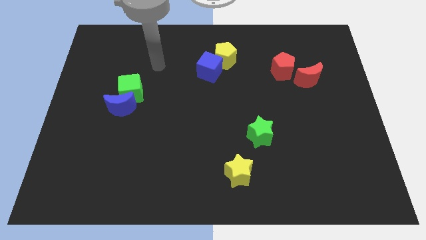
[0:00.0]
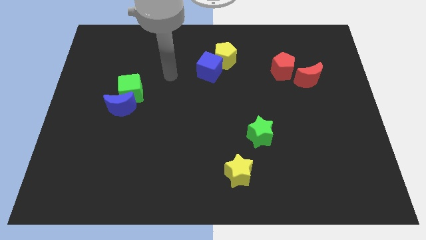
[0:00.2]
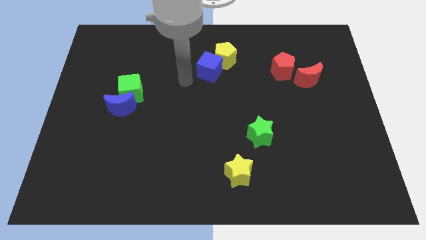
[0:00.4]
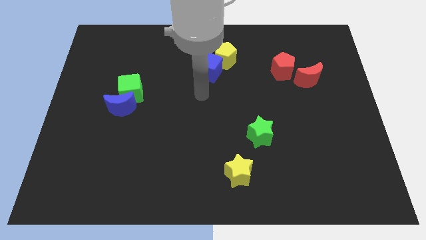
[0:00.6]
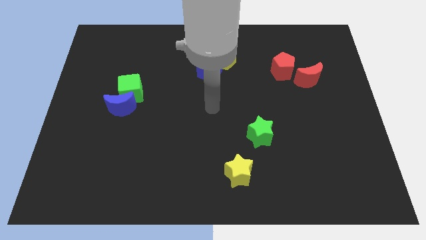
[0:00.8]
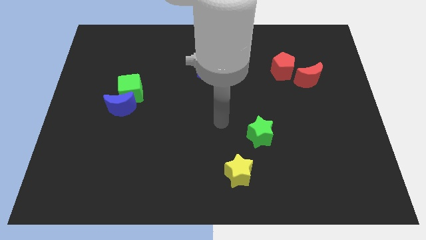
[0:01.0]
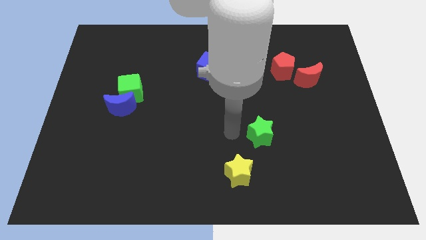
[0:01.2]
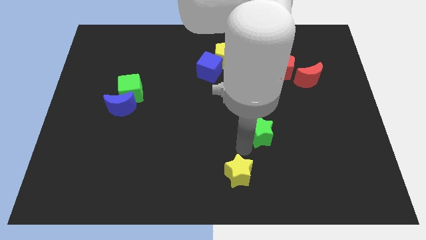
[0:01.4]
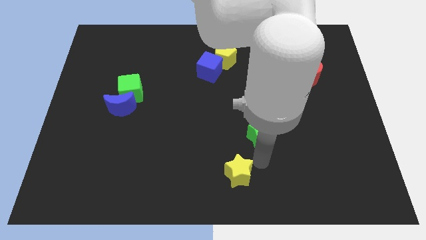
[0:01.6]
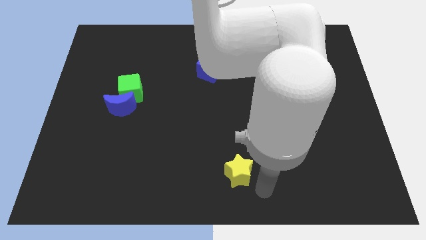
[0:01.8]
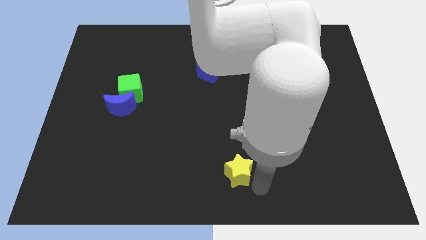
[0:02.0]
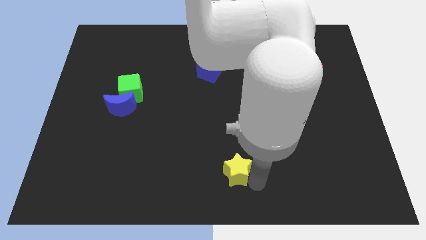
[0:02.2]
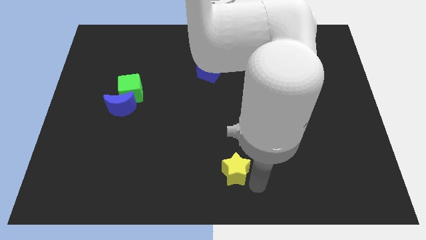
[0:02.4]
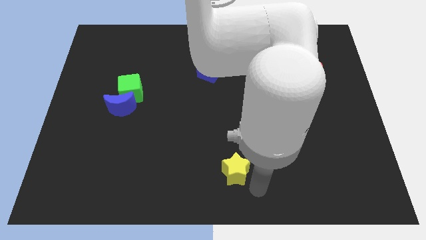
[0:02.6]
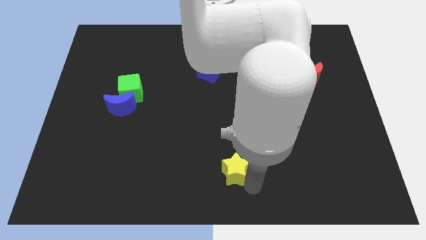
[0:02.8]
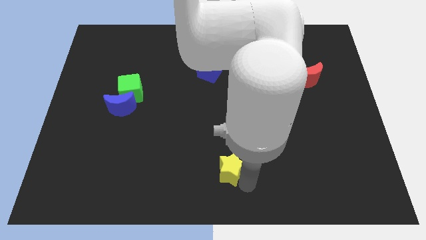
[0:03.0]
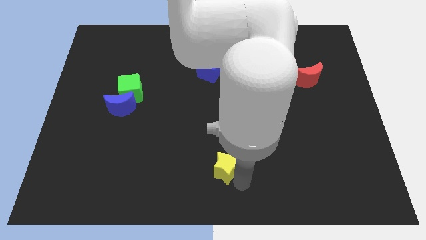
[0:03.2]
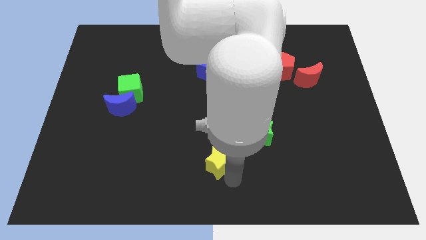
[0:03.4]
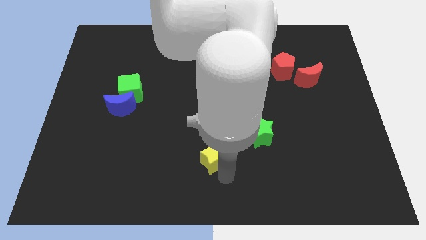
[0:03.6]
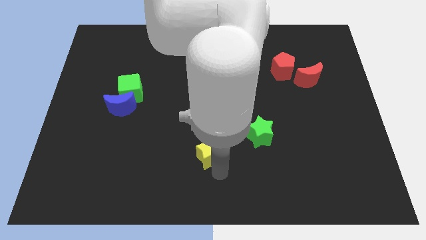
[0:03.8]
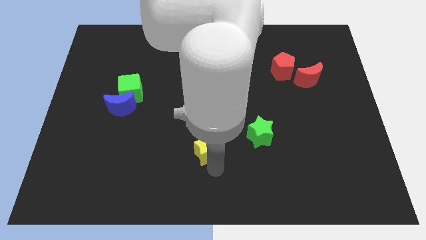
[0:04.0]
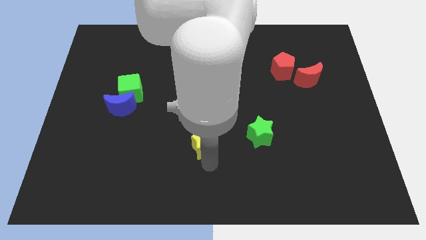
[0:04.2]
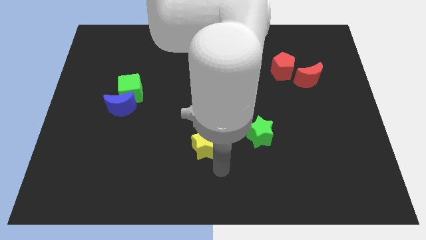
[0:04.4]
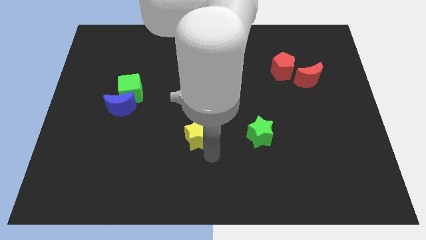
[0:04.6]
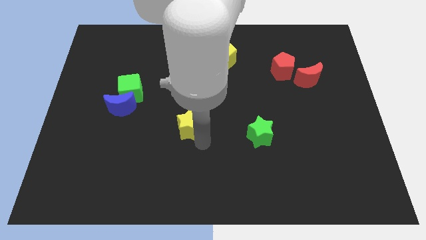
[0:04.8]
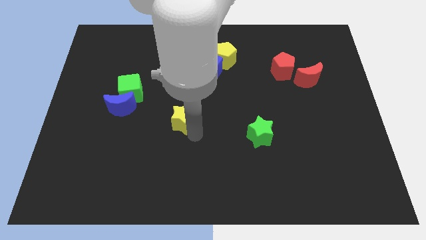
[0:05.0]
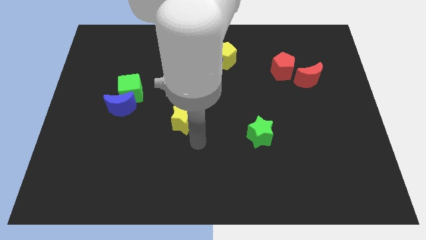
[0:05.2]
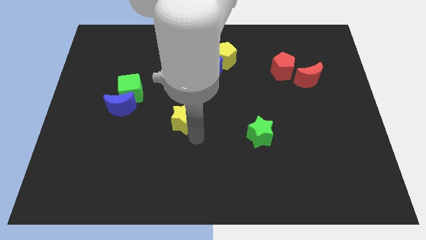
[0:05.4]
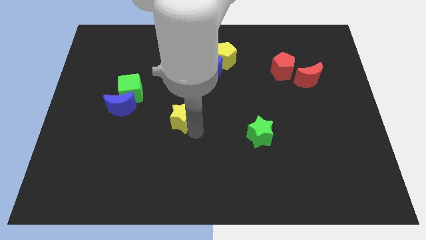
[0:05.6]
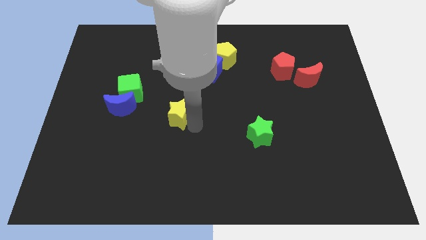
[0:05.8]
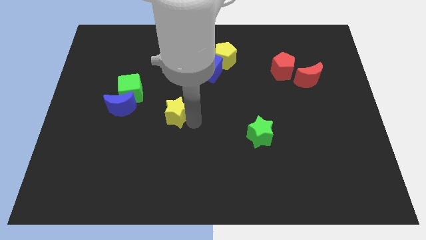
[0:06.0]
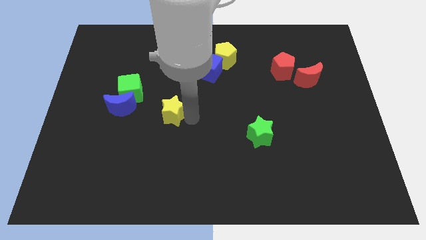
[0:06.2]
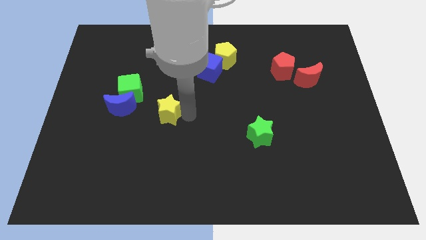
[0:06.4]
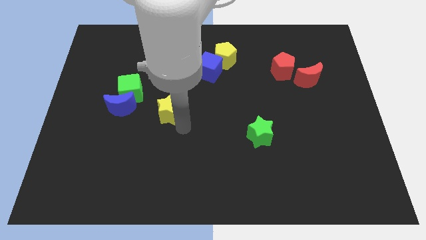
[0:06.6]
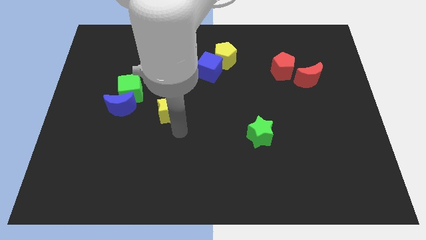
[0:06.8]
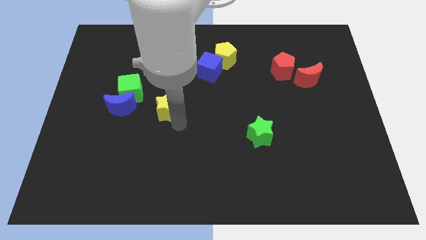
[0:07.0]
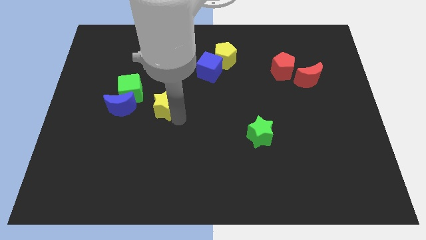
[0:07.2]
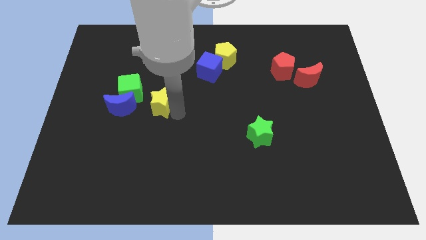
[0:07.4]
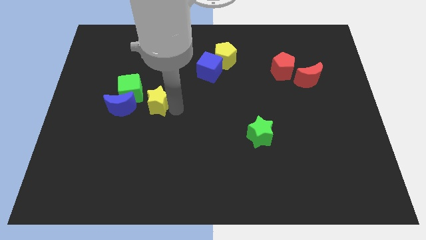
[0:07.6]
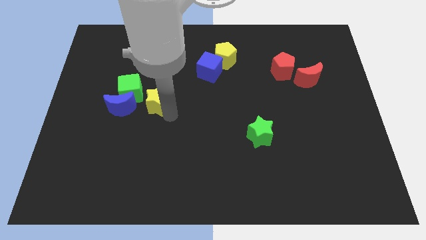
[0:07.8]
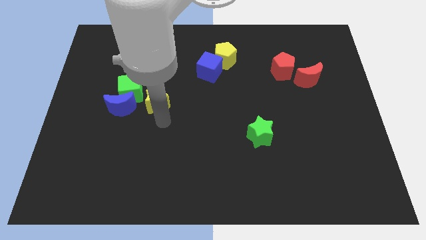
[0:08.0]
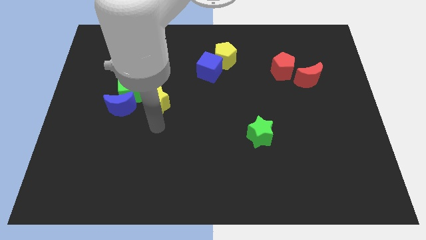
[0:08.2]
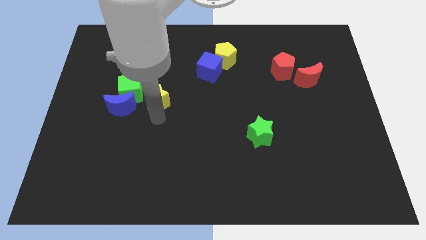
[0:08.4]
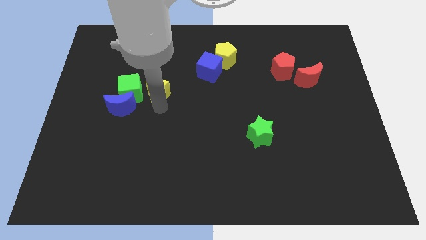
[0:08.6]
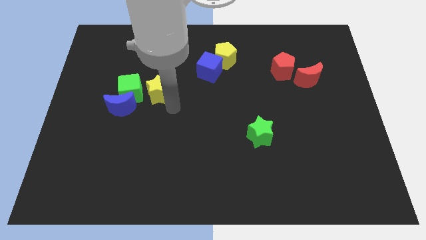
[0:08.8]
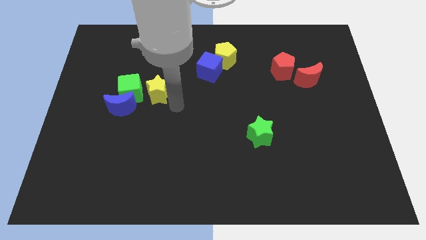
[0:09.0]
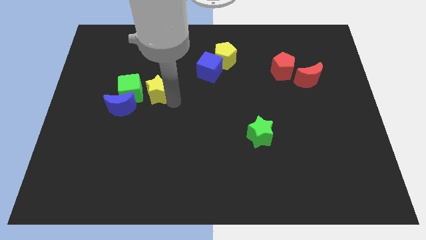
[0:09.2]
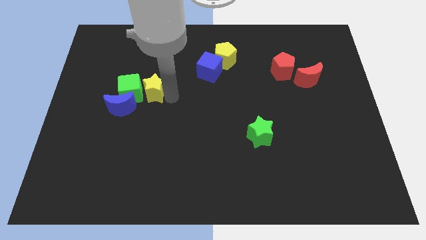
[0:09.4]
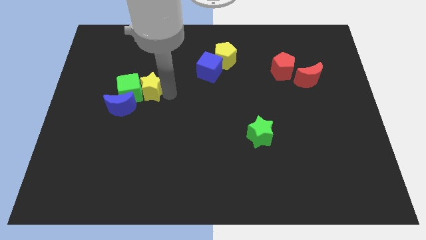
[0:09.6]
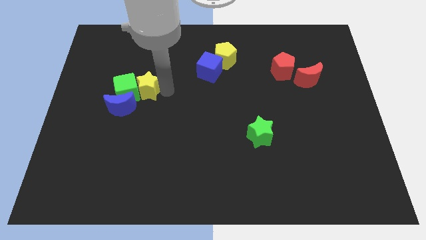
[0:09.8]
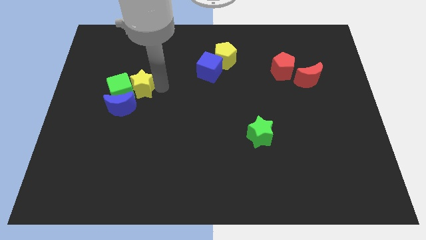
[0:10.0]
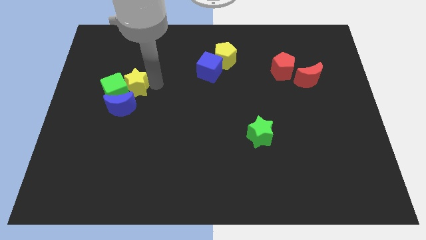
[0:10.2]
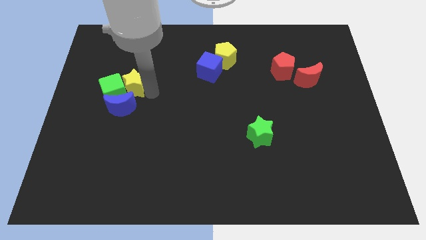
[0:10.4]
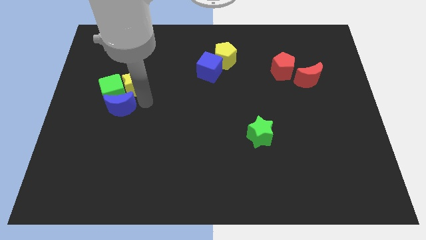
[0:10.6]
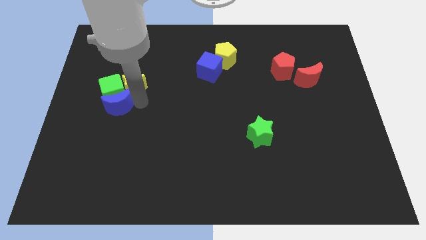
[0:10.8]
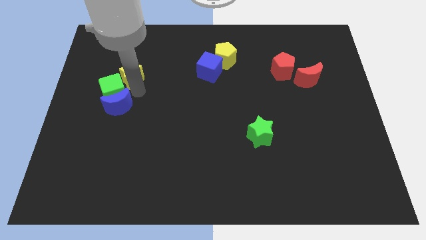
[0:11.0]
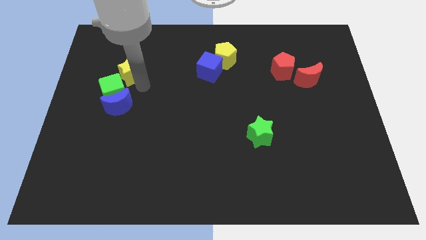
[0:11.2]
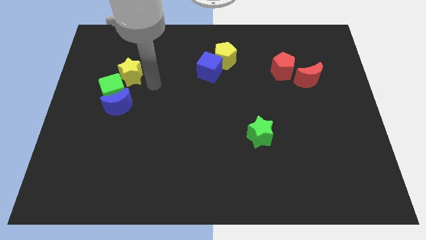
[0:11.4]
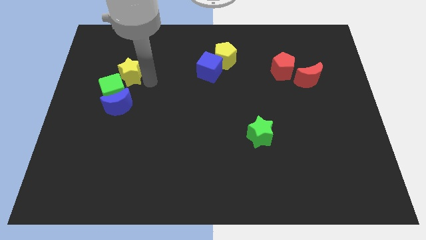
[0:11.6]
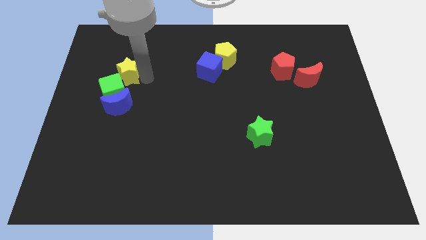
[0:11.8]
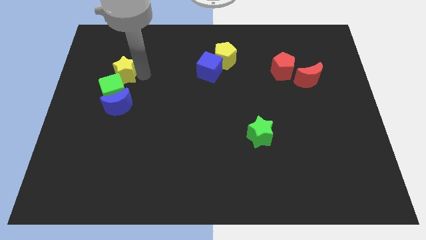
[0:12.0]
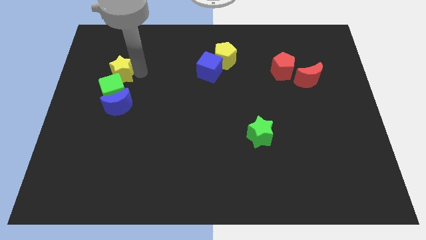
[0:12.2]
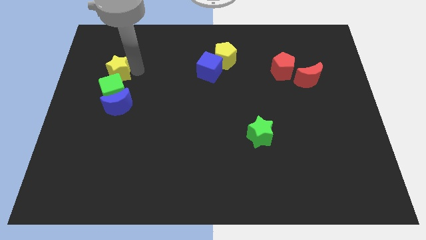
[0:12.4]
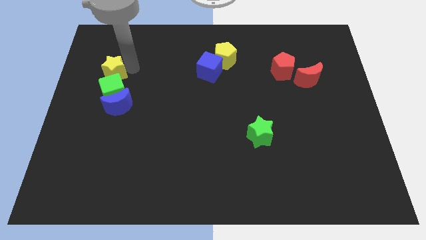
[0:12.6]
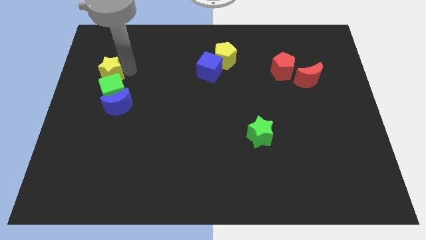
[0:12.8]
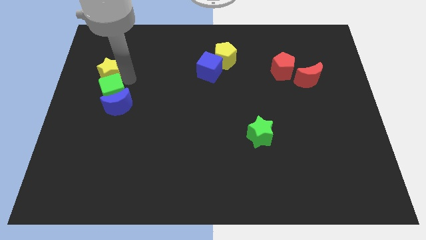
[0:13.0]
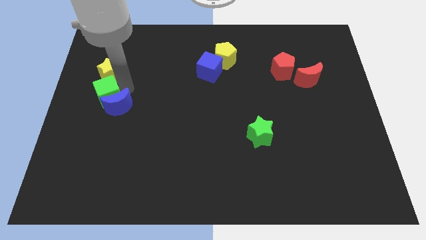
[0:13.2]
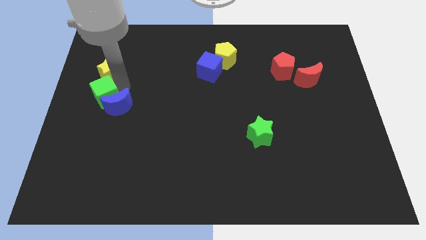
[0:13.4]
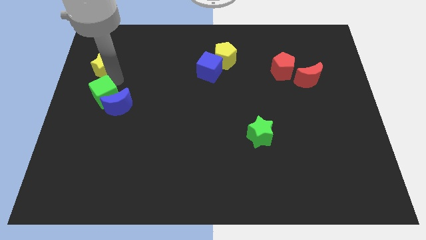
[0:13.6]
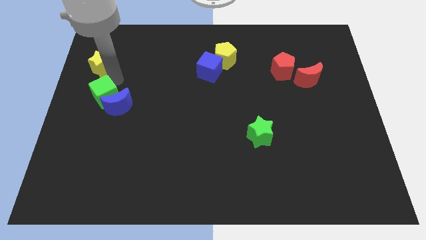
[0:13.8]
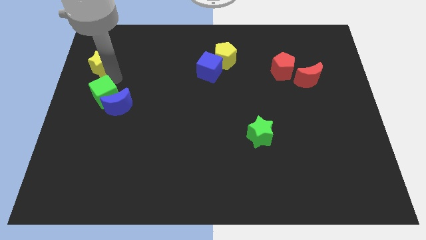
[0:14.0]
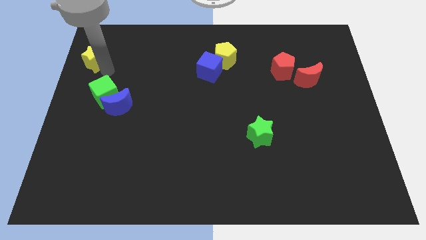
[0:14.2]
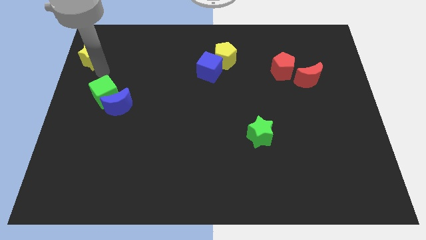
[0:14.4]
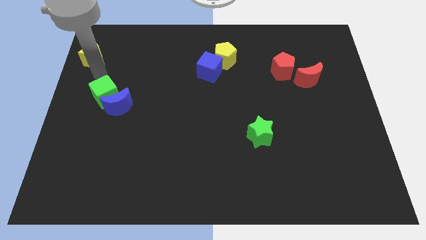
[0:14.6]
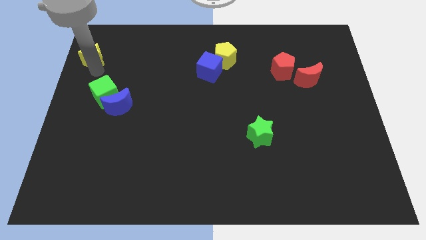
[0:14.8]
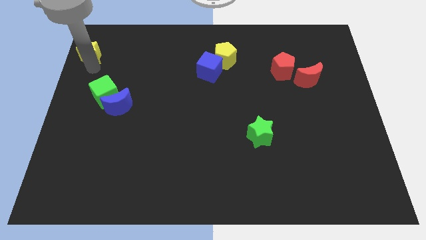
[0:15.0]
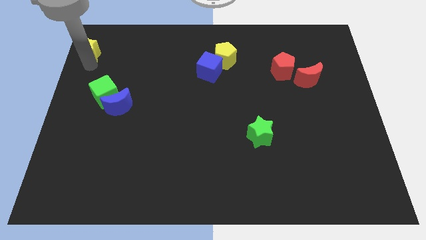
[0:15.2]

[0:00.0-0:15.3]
push the yellow star to the top left
